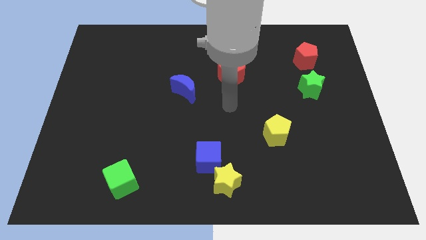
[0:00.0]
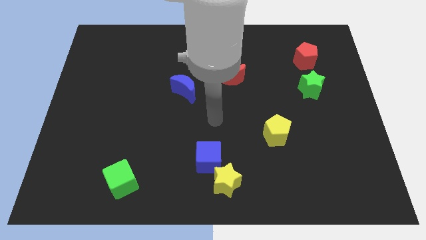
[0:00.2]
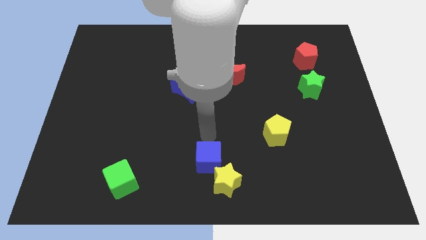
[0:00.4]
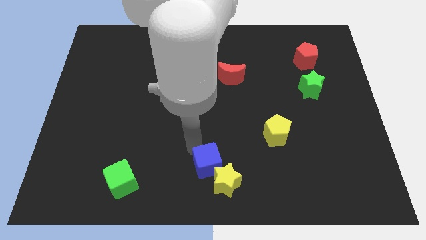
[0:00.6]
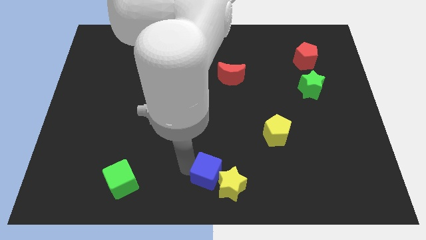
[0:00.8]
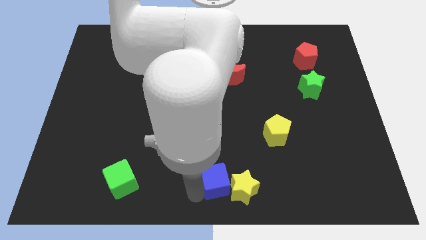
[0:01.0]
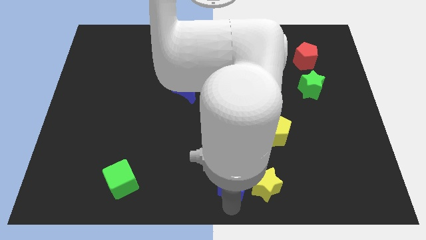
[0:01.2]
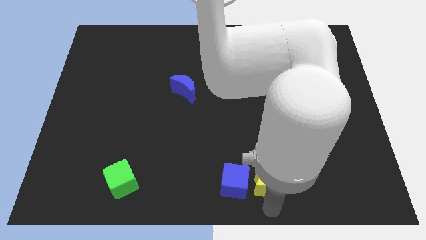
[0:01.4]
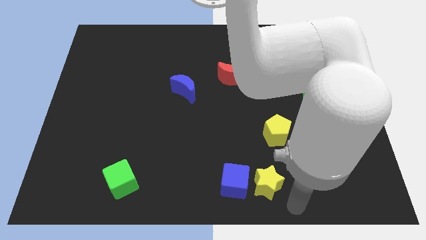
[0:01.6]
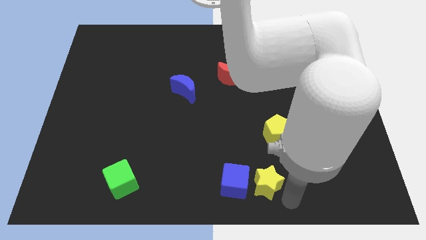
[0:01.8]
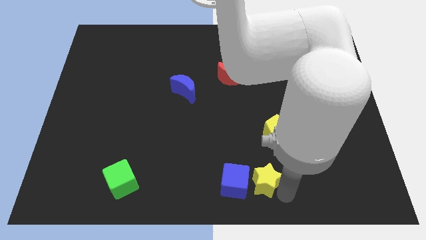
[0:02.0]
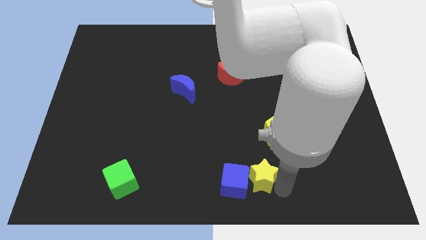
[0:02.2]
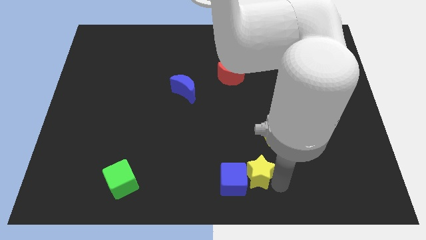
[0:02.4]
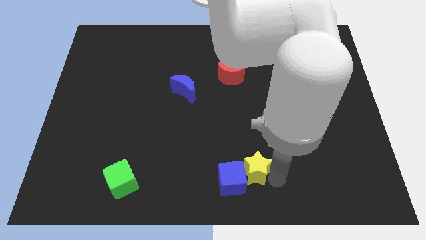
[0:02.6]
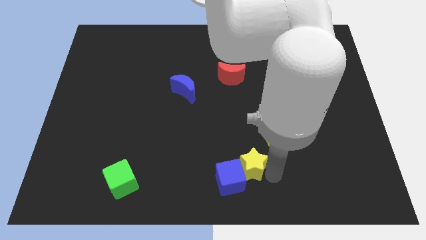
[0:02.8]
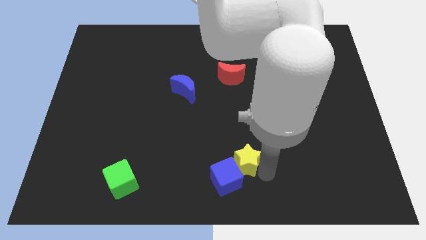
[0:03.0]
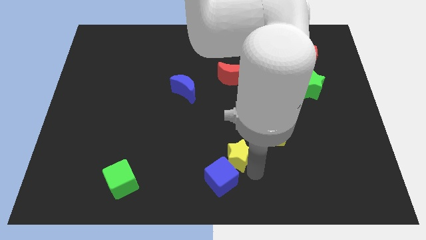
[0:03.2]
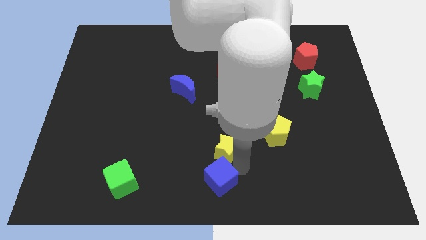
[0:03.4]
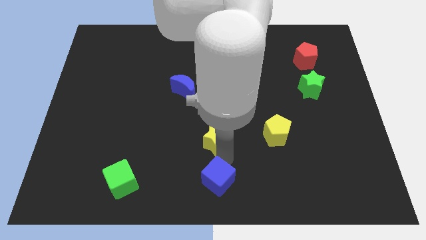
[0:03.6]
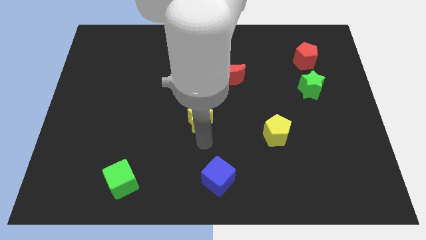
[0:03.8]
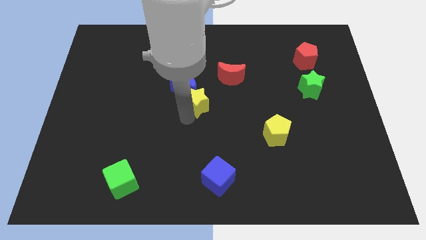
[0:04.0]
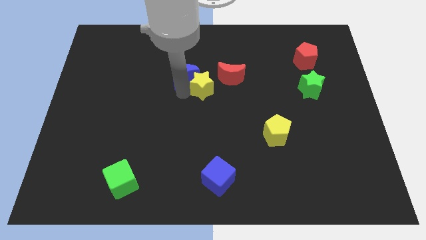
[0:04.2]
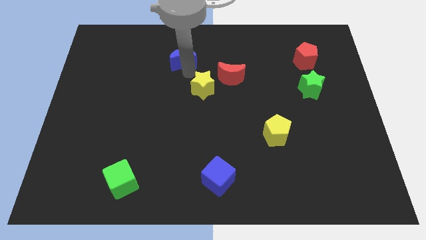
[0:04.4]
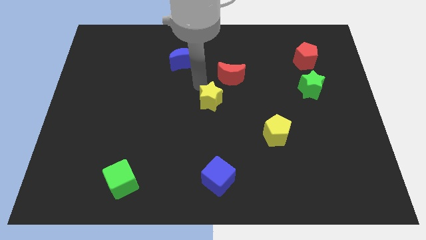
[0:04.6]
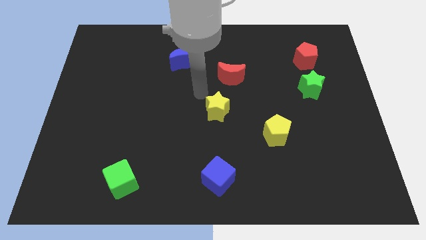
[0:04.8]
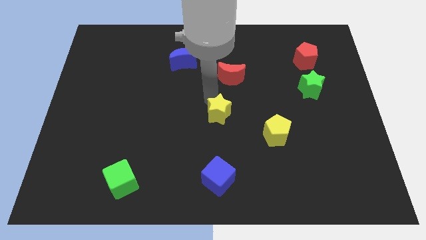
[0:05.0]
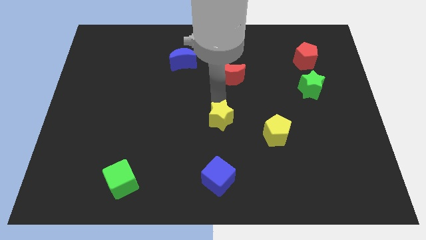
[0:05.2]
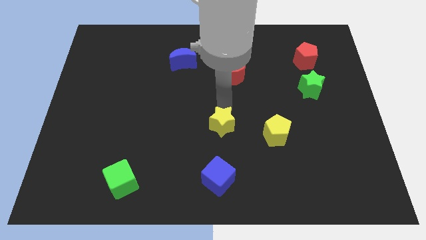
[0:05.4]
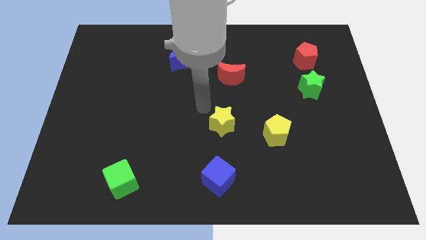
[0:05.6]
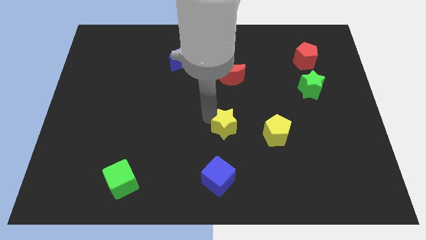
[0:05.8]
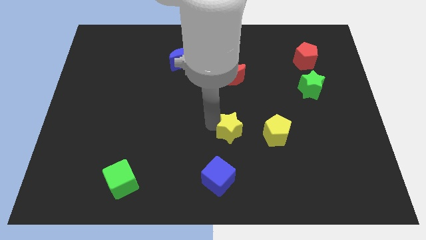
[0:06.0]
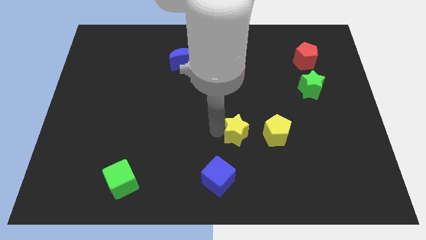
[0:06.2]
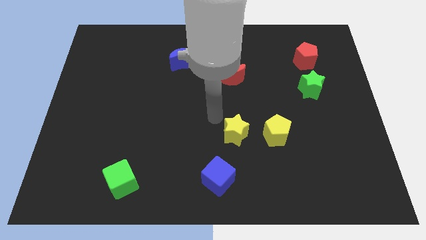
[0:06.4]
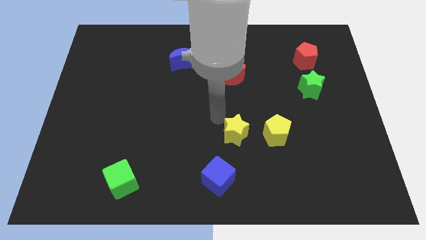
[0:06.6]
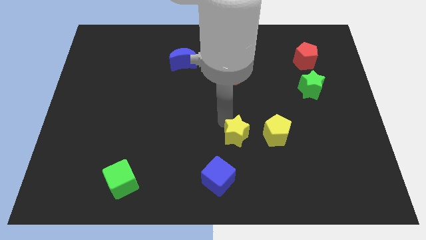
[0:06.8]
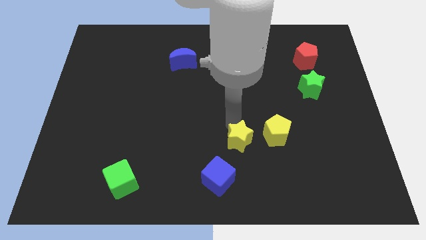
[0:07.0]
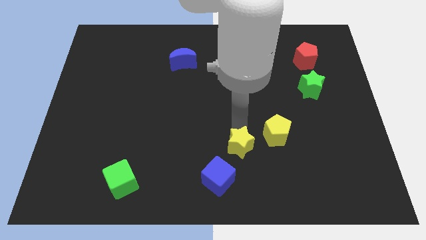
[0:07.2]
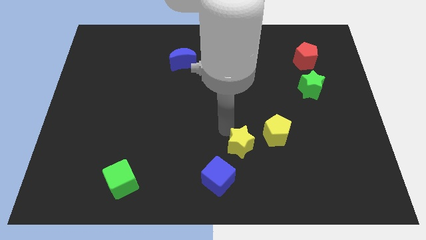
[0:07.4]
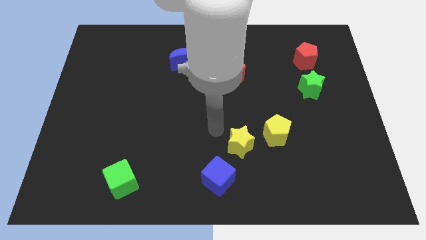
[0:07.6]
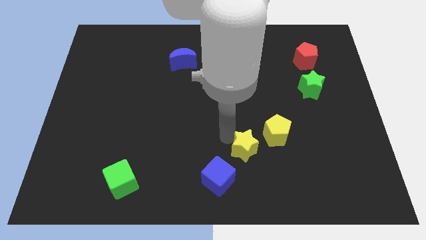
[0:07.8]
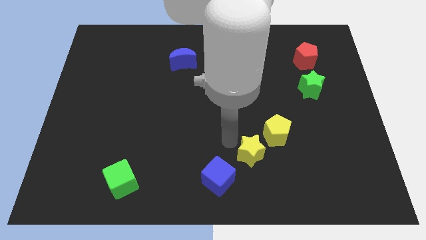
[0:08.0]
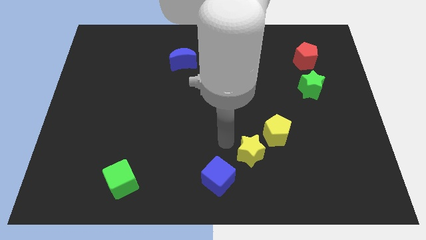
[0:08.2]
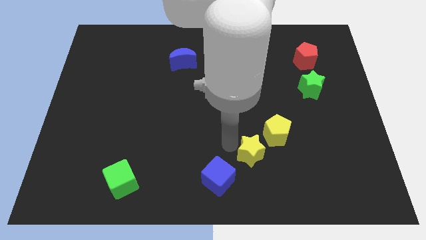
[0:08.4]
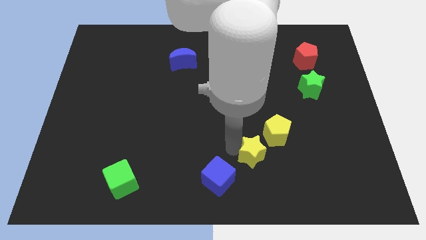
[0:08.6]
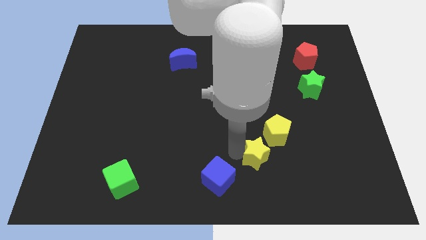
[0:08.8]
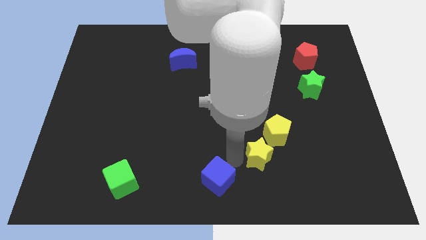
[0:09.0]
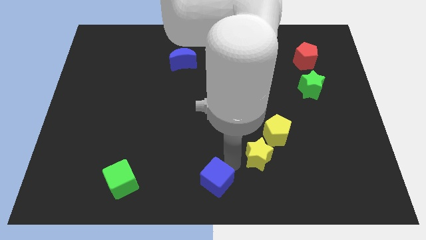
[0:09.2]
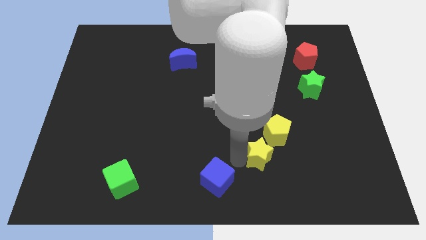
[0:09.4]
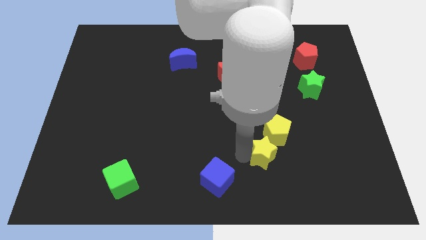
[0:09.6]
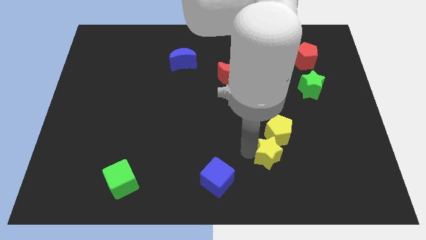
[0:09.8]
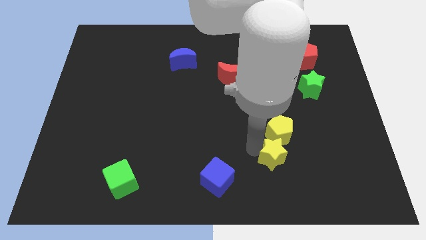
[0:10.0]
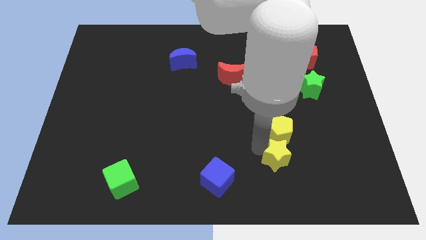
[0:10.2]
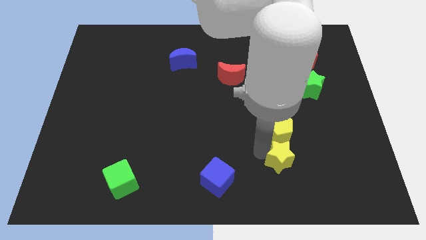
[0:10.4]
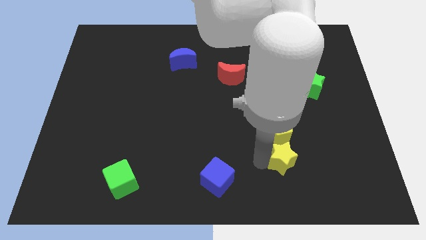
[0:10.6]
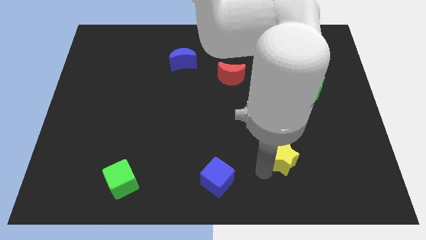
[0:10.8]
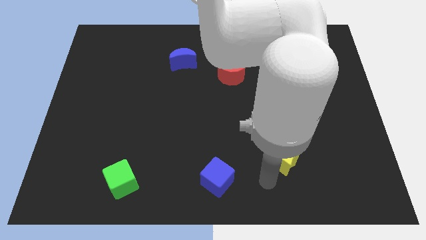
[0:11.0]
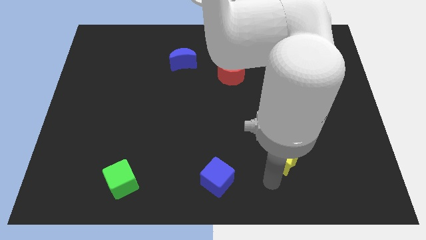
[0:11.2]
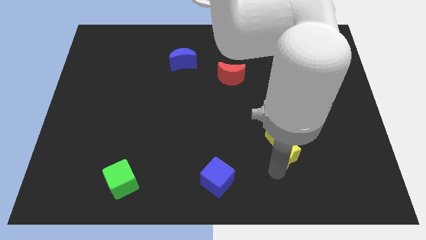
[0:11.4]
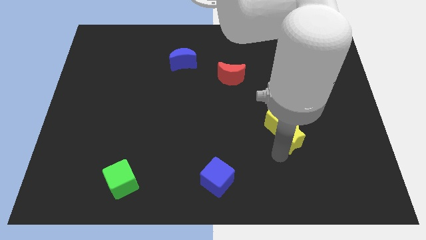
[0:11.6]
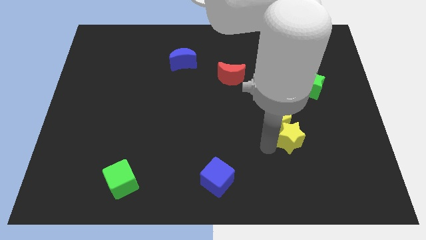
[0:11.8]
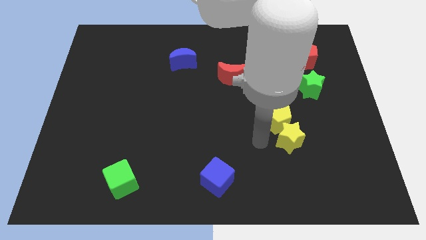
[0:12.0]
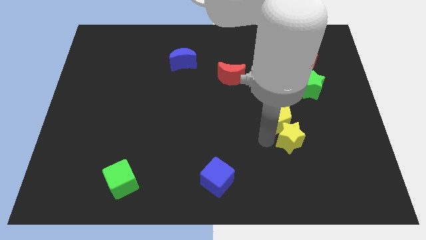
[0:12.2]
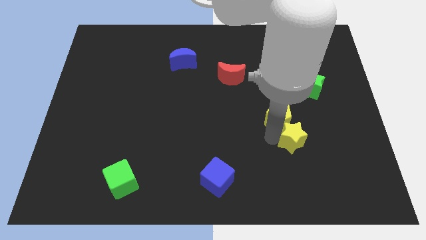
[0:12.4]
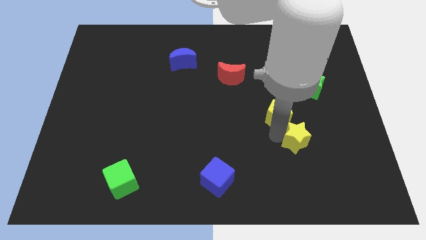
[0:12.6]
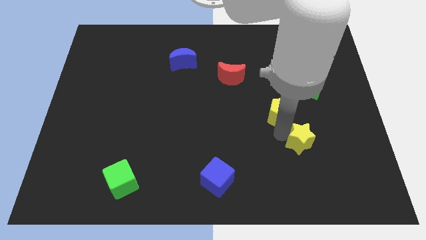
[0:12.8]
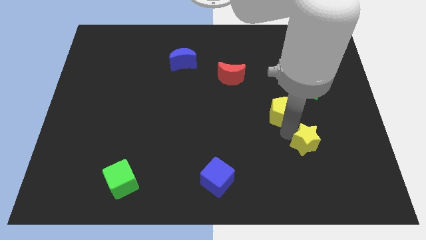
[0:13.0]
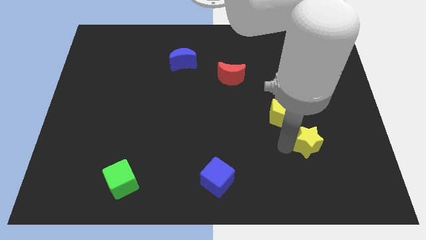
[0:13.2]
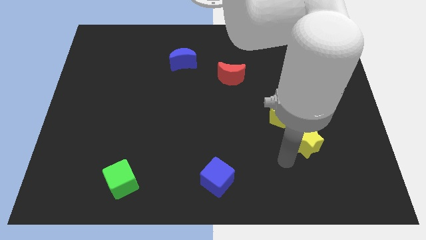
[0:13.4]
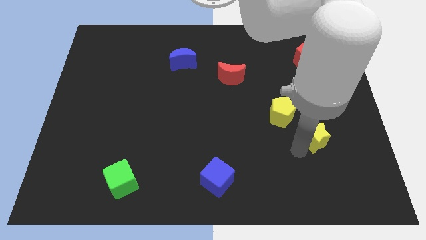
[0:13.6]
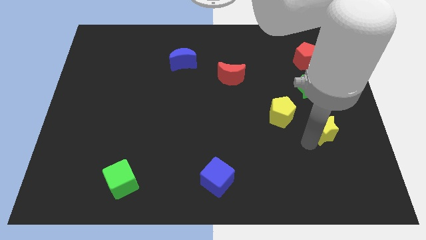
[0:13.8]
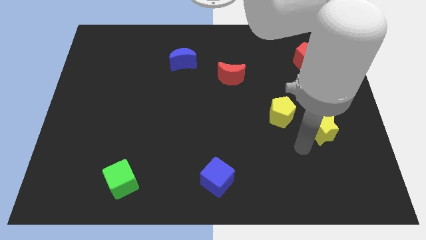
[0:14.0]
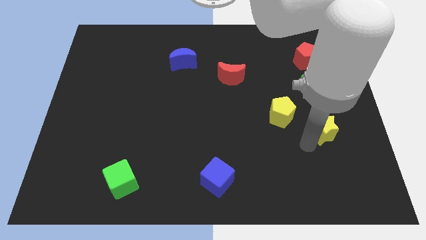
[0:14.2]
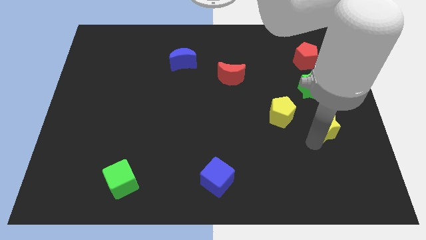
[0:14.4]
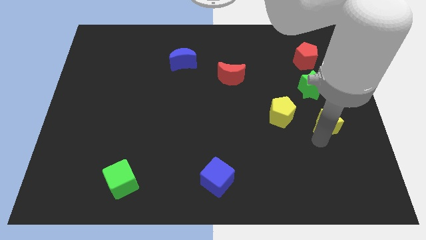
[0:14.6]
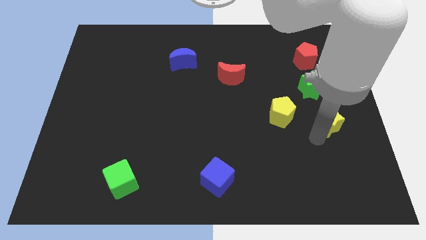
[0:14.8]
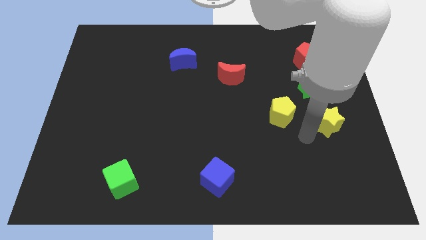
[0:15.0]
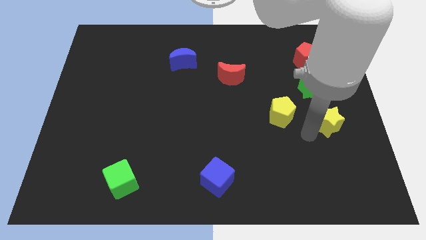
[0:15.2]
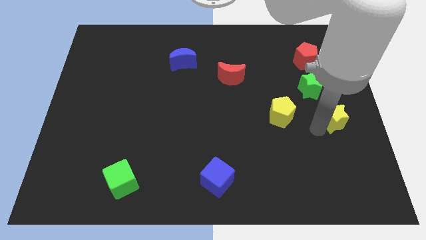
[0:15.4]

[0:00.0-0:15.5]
put the yellow star to the right side of the board
